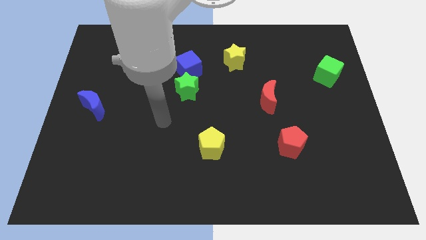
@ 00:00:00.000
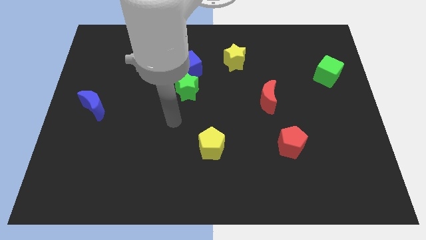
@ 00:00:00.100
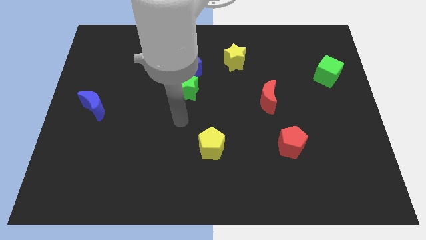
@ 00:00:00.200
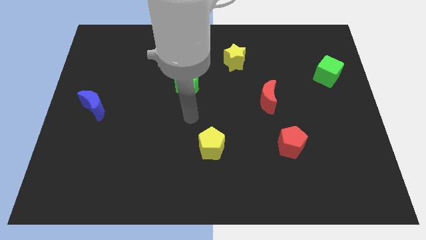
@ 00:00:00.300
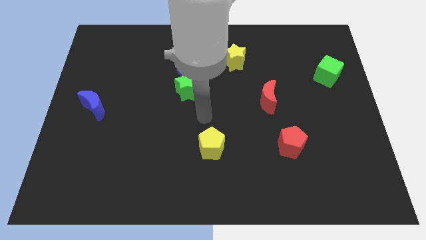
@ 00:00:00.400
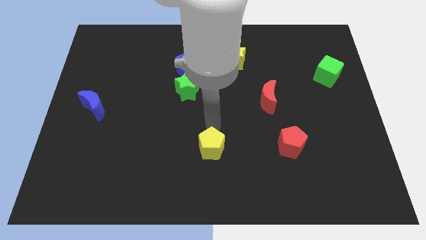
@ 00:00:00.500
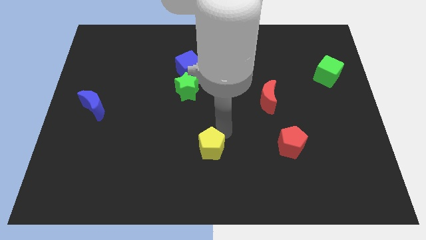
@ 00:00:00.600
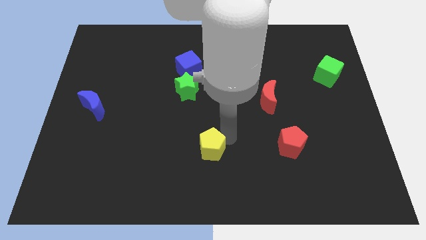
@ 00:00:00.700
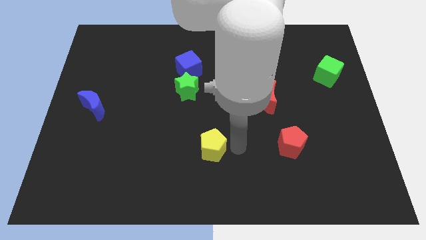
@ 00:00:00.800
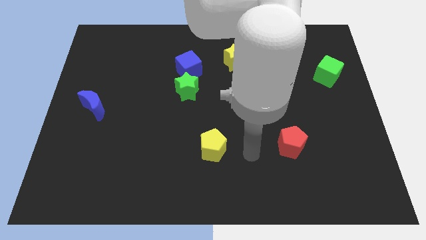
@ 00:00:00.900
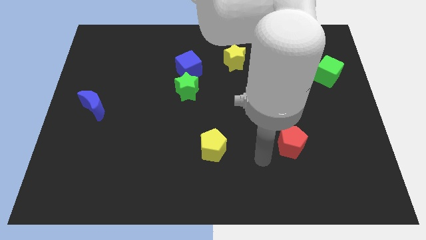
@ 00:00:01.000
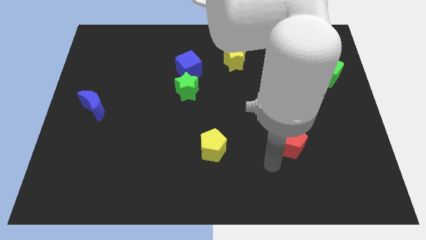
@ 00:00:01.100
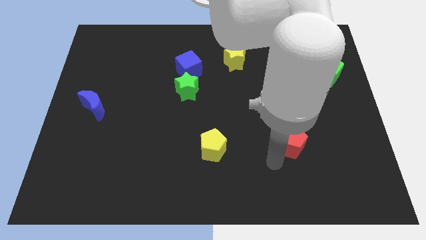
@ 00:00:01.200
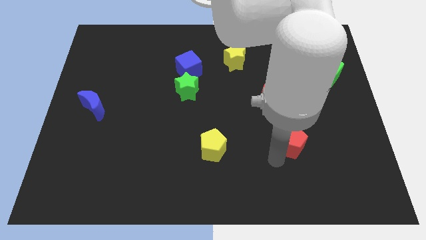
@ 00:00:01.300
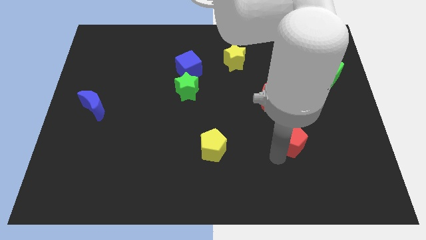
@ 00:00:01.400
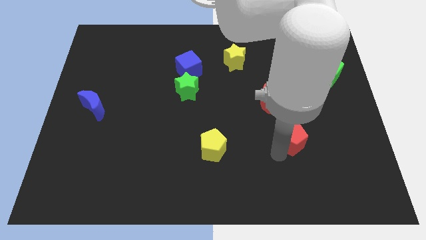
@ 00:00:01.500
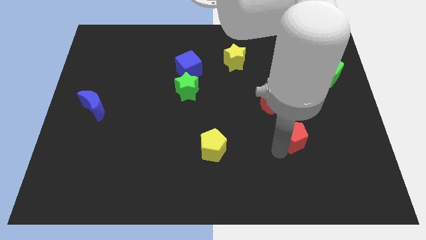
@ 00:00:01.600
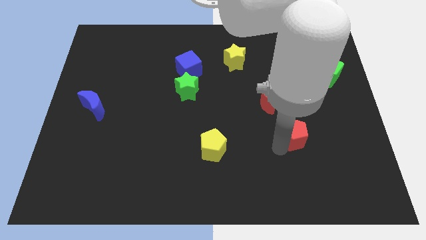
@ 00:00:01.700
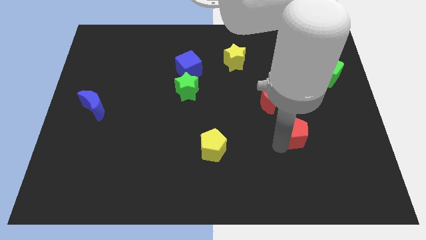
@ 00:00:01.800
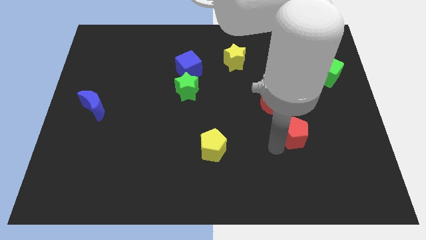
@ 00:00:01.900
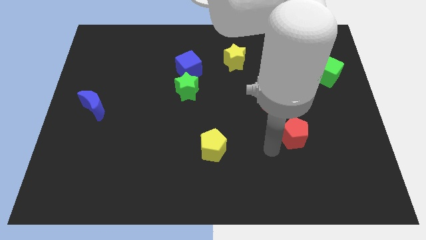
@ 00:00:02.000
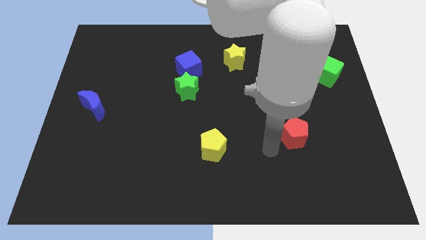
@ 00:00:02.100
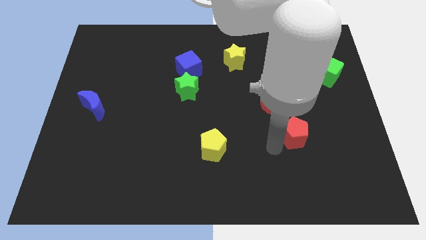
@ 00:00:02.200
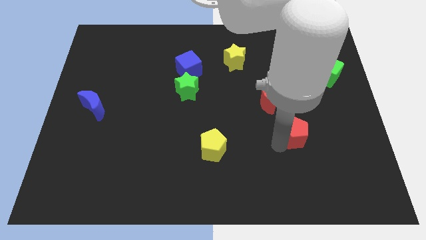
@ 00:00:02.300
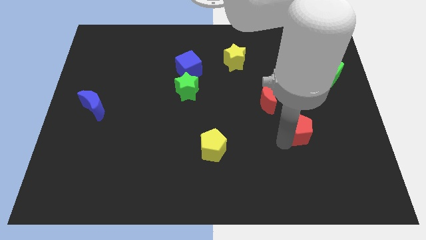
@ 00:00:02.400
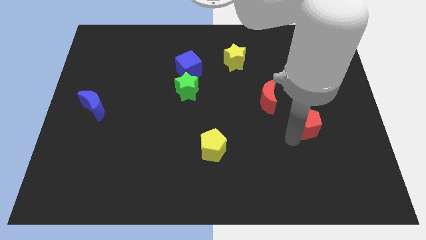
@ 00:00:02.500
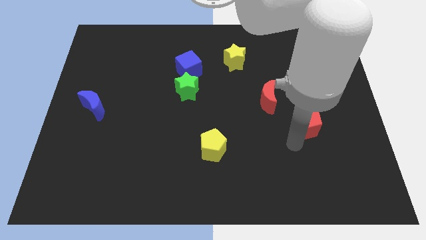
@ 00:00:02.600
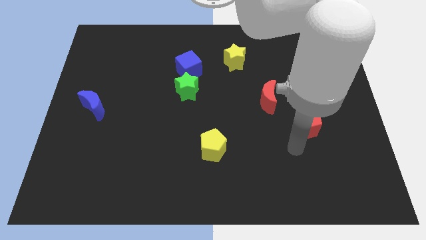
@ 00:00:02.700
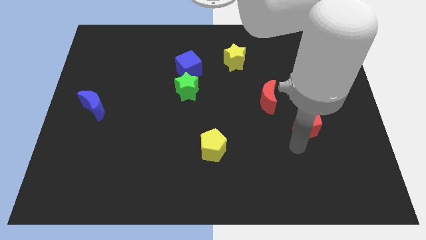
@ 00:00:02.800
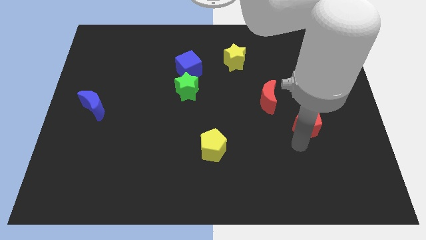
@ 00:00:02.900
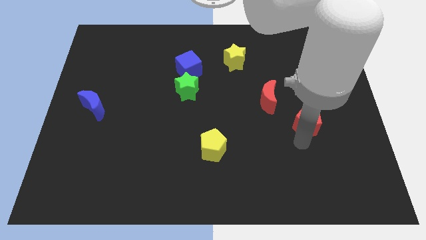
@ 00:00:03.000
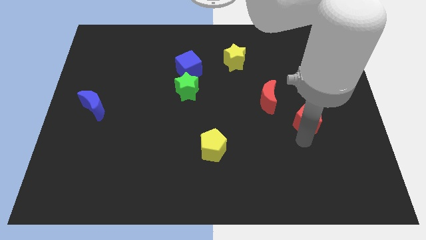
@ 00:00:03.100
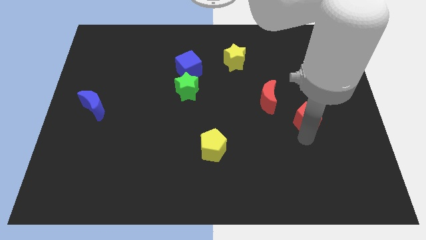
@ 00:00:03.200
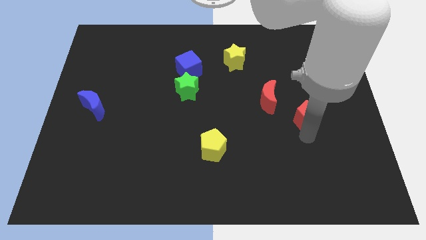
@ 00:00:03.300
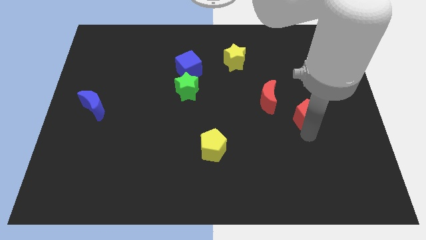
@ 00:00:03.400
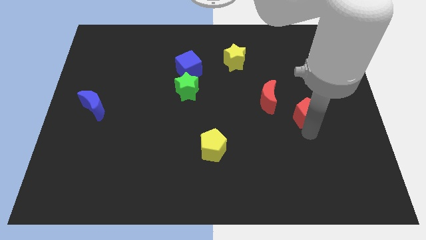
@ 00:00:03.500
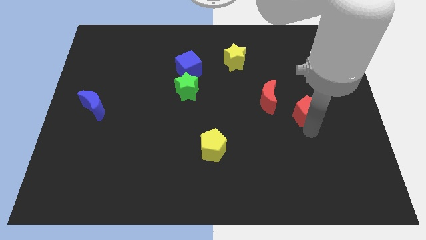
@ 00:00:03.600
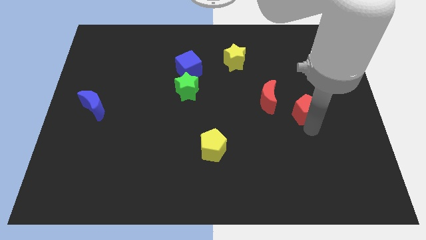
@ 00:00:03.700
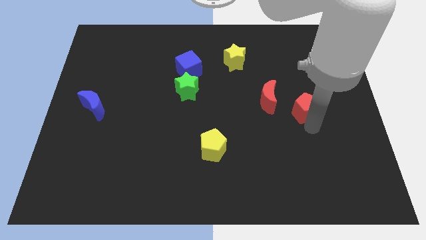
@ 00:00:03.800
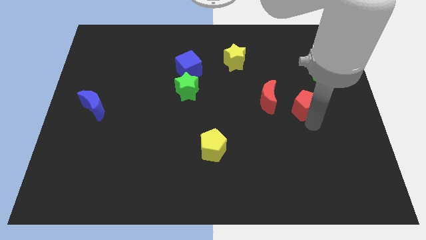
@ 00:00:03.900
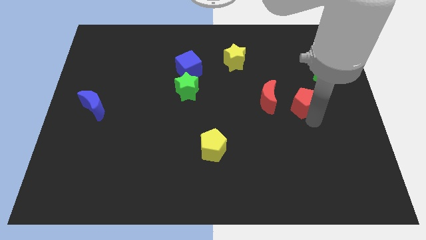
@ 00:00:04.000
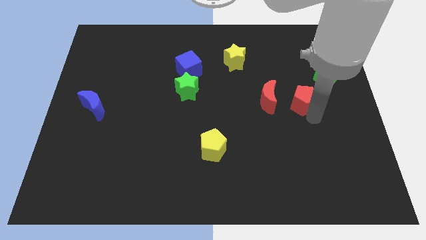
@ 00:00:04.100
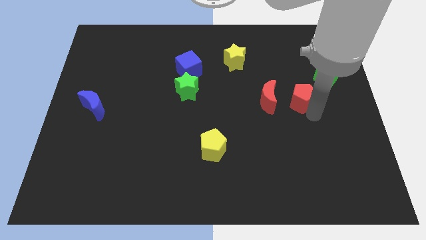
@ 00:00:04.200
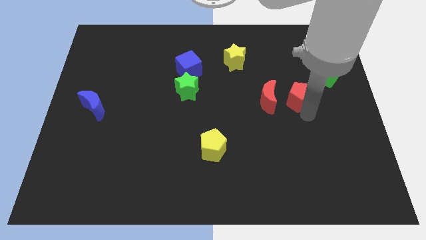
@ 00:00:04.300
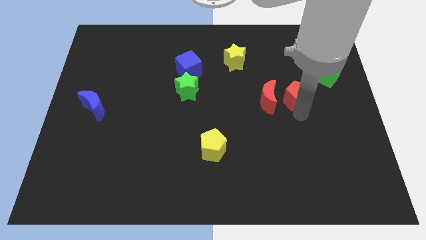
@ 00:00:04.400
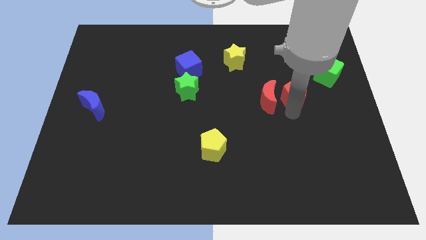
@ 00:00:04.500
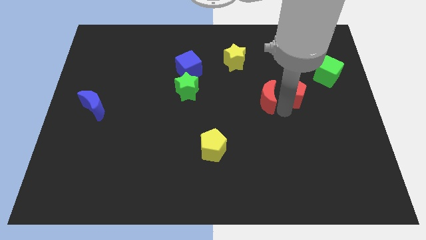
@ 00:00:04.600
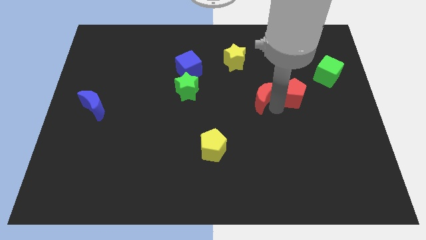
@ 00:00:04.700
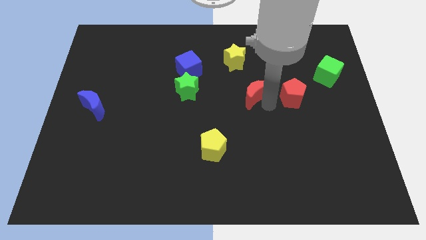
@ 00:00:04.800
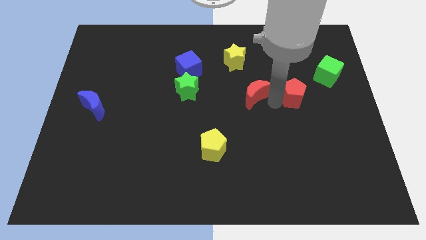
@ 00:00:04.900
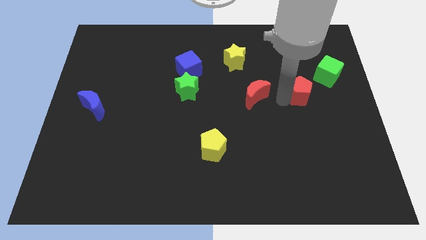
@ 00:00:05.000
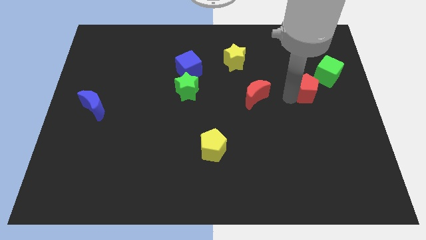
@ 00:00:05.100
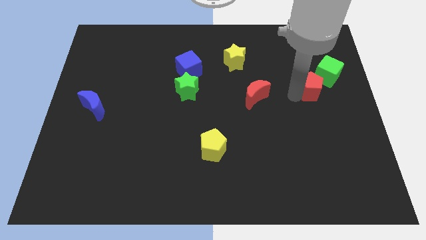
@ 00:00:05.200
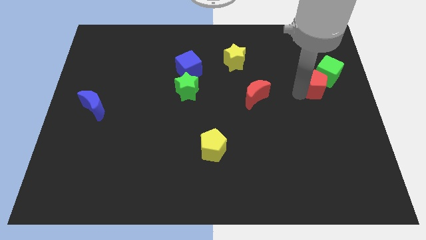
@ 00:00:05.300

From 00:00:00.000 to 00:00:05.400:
push the red pentagon towards the green cube

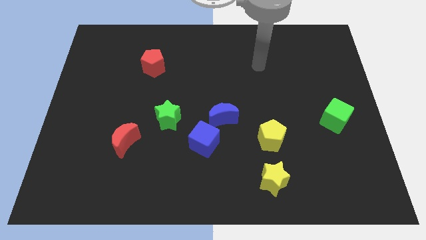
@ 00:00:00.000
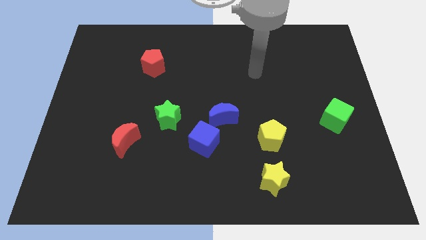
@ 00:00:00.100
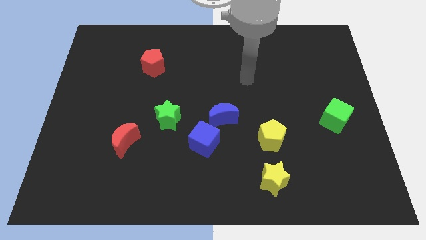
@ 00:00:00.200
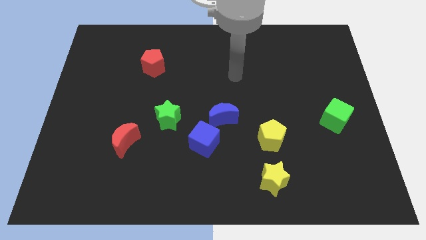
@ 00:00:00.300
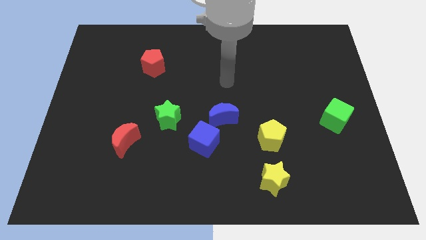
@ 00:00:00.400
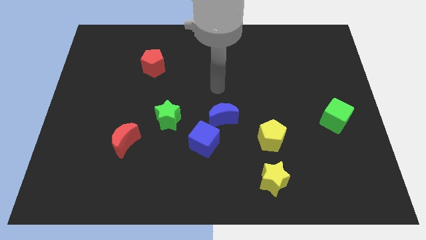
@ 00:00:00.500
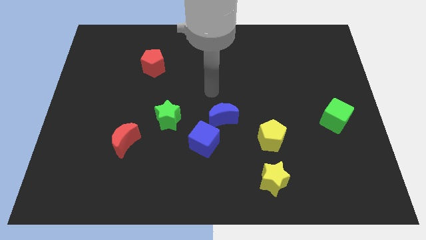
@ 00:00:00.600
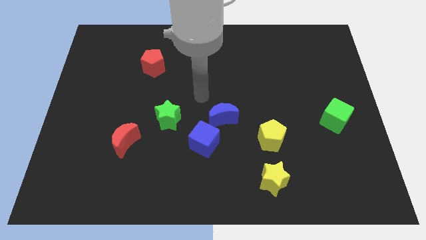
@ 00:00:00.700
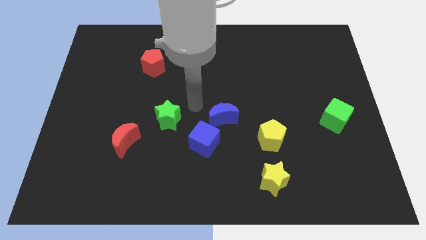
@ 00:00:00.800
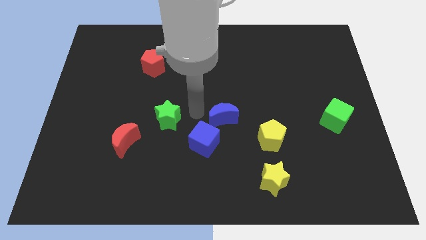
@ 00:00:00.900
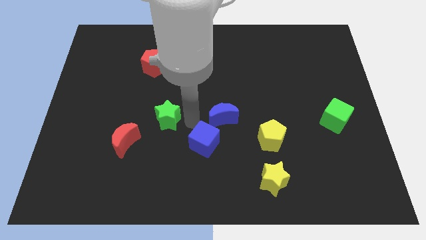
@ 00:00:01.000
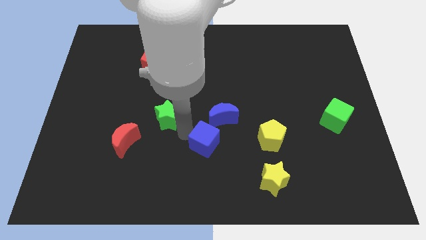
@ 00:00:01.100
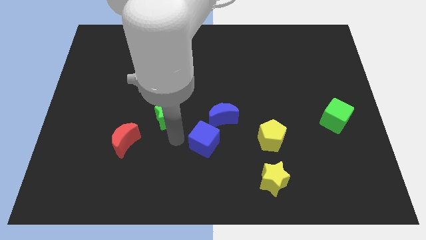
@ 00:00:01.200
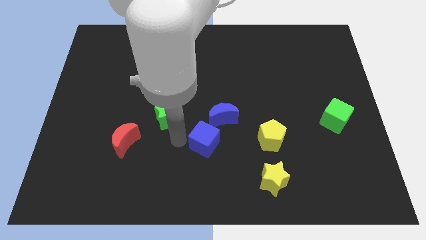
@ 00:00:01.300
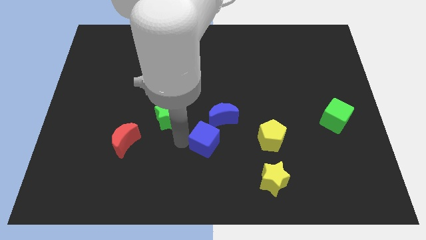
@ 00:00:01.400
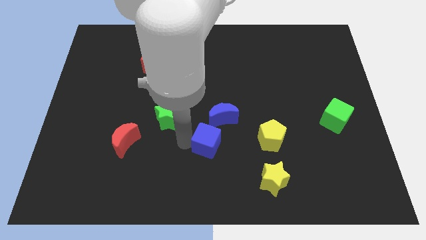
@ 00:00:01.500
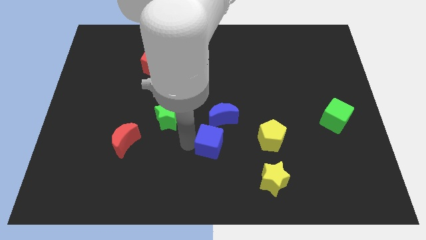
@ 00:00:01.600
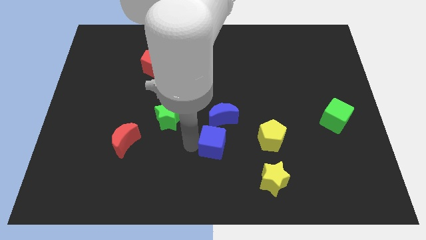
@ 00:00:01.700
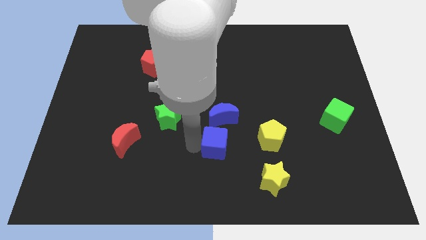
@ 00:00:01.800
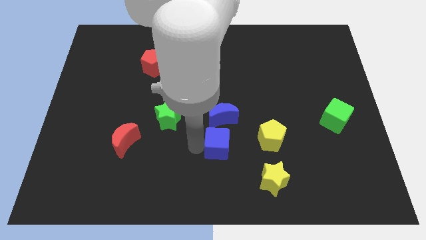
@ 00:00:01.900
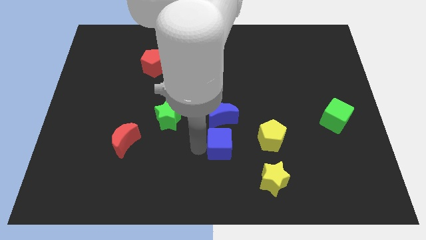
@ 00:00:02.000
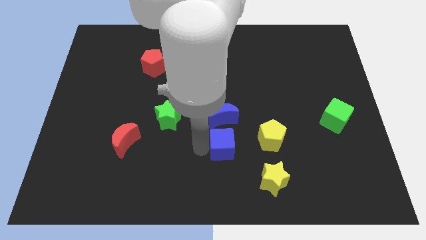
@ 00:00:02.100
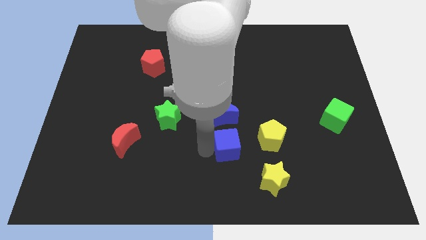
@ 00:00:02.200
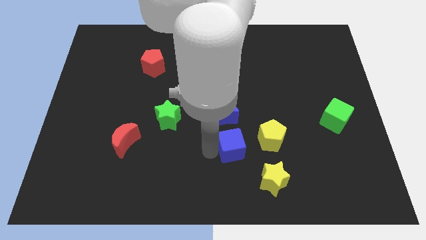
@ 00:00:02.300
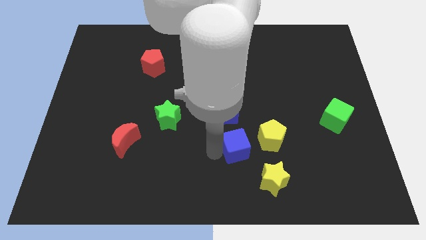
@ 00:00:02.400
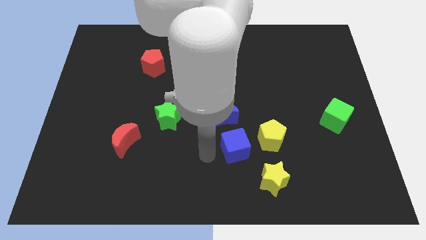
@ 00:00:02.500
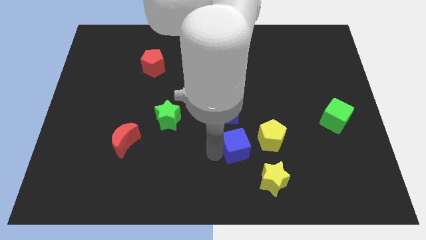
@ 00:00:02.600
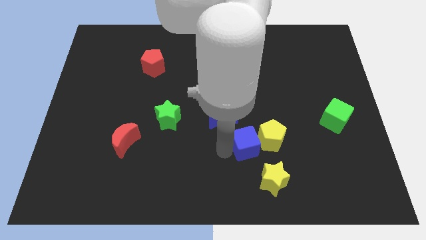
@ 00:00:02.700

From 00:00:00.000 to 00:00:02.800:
slide the blue cube to the yellow pentagon
